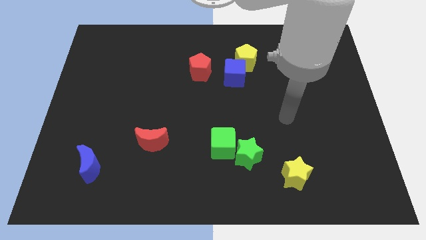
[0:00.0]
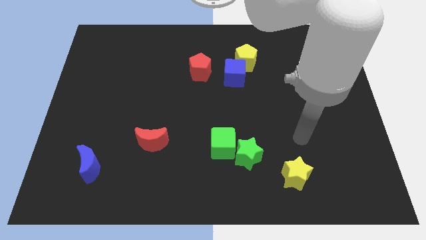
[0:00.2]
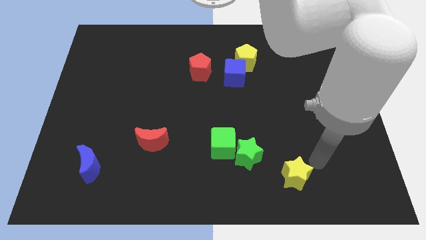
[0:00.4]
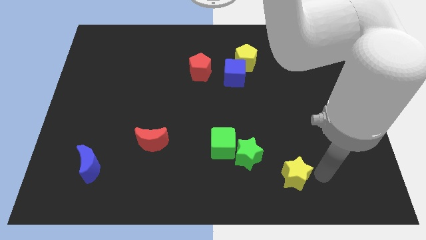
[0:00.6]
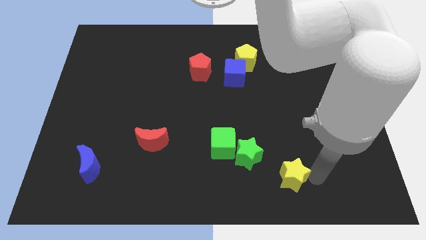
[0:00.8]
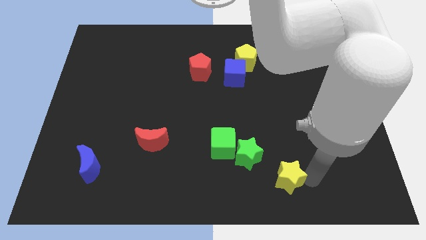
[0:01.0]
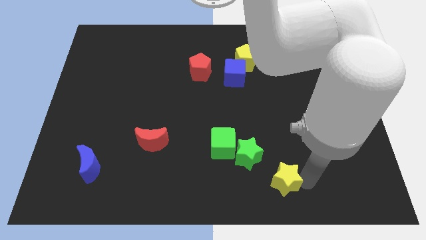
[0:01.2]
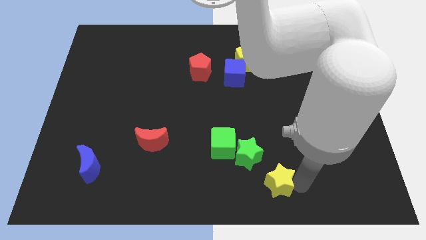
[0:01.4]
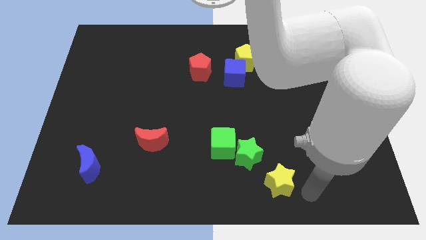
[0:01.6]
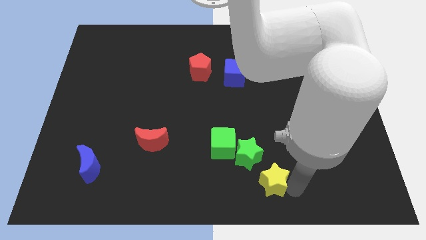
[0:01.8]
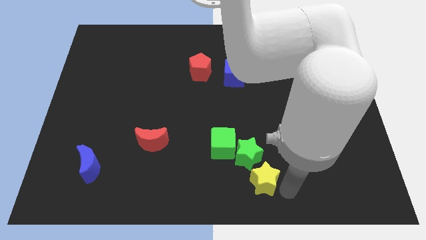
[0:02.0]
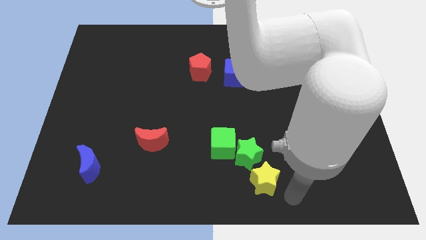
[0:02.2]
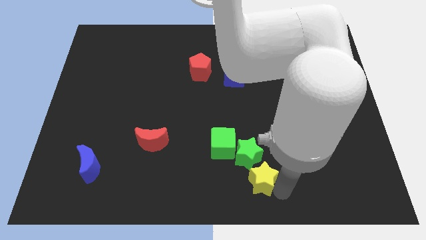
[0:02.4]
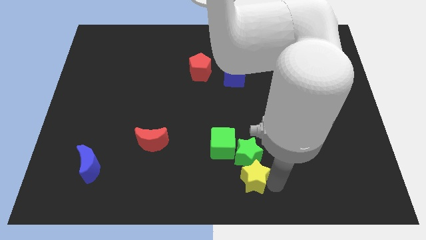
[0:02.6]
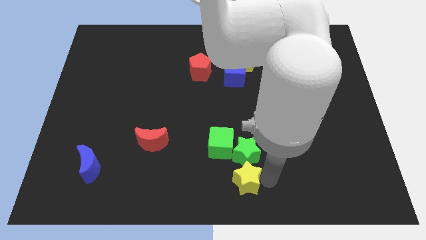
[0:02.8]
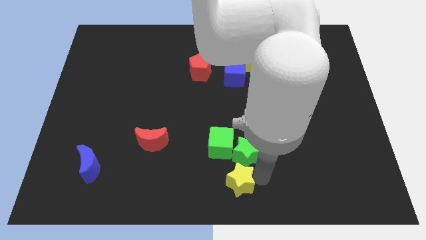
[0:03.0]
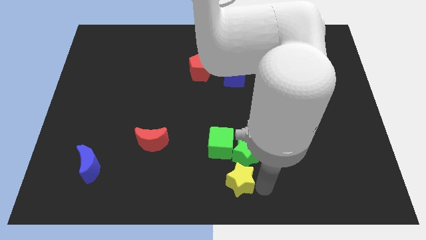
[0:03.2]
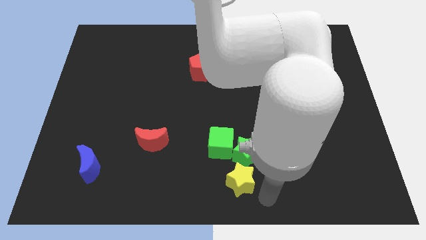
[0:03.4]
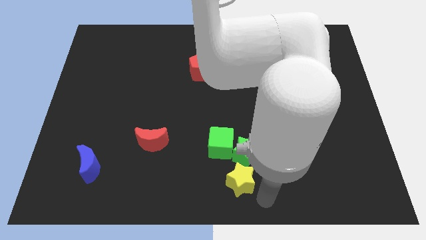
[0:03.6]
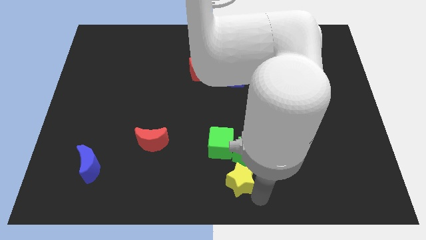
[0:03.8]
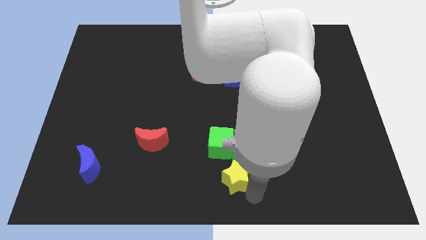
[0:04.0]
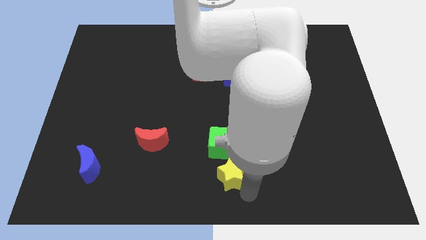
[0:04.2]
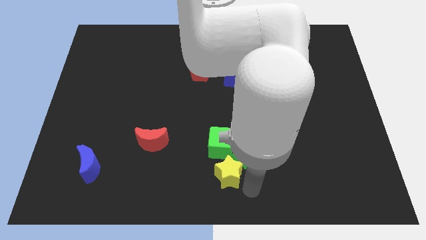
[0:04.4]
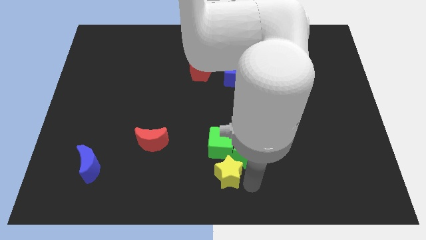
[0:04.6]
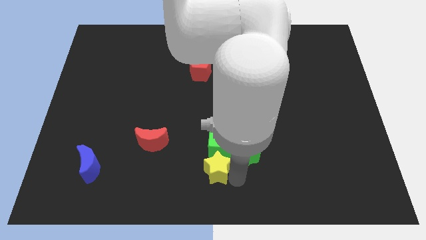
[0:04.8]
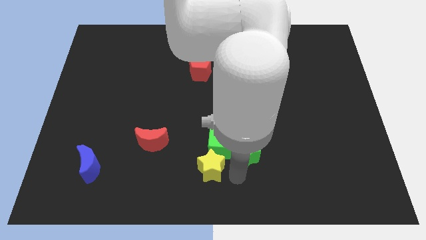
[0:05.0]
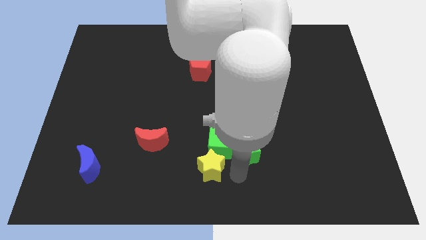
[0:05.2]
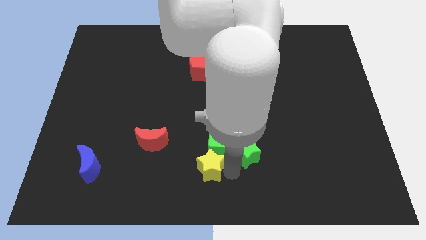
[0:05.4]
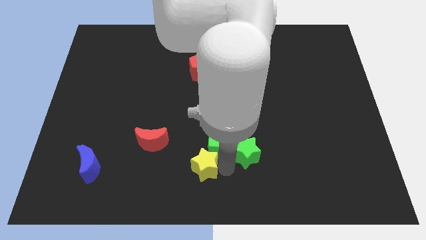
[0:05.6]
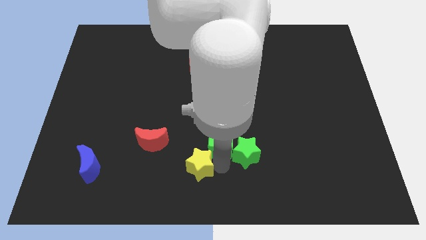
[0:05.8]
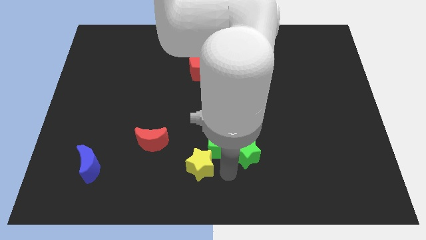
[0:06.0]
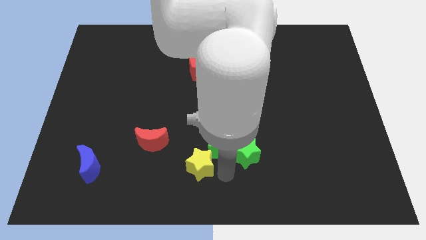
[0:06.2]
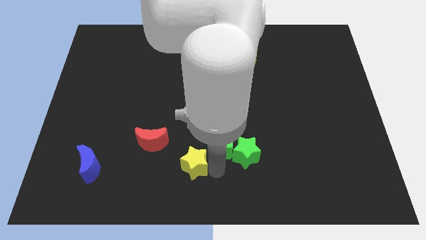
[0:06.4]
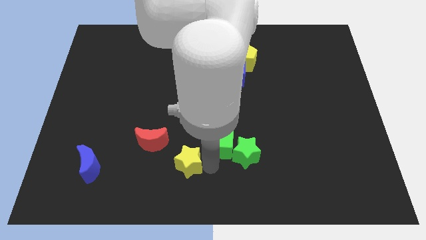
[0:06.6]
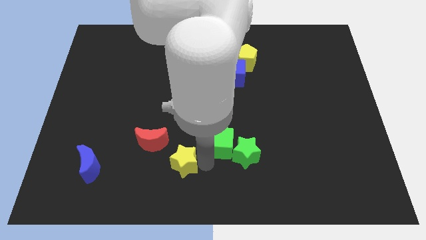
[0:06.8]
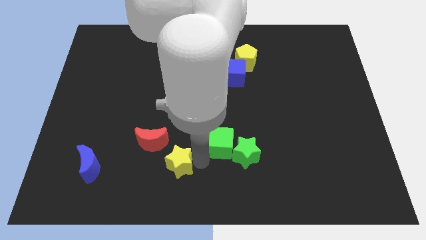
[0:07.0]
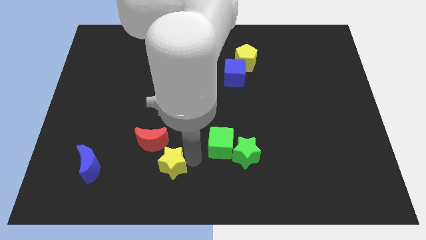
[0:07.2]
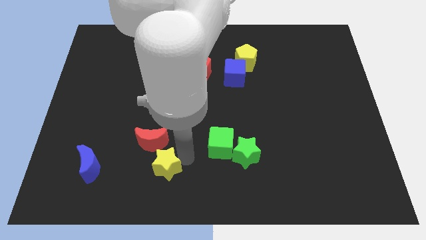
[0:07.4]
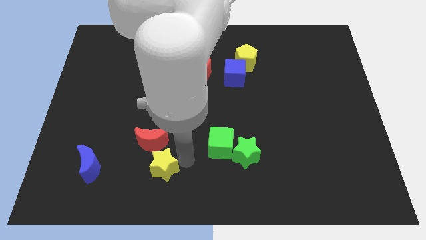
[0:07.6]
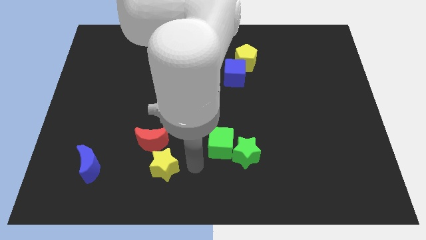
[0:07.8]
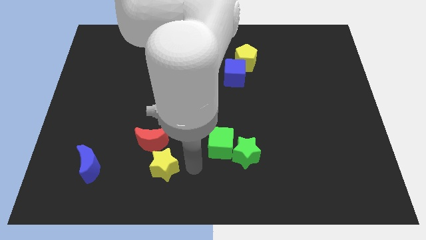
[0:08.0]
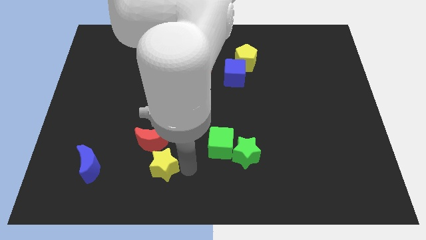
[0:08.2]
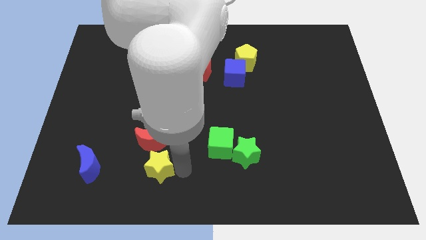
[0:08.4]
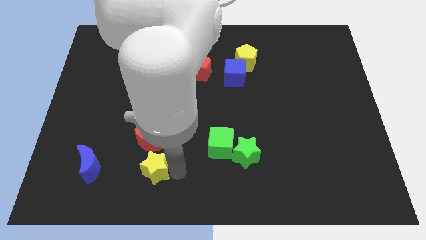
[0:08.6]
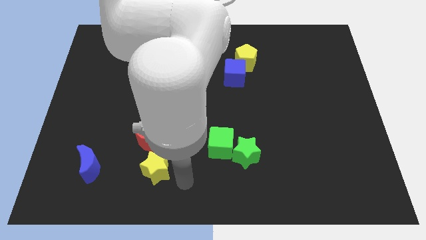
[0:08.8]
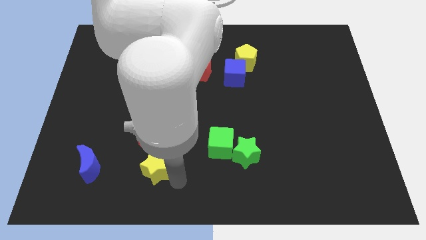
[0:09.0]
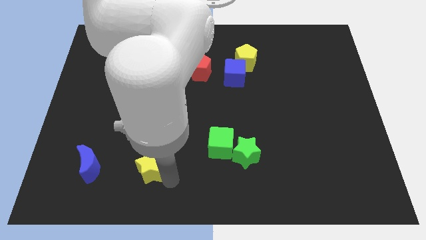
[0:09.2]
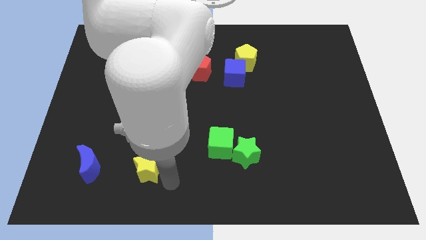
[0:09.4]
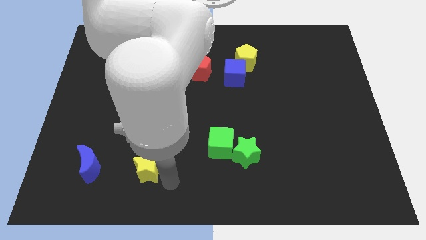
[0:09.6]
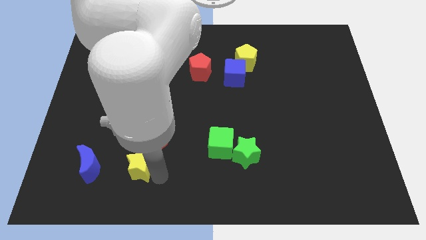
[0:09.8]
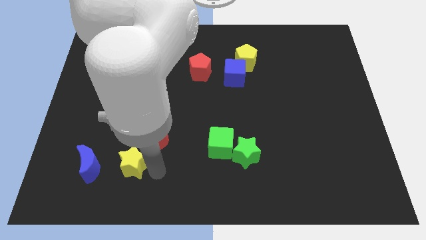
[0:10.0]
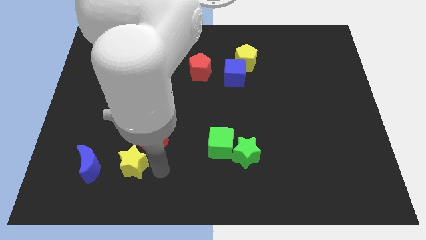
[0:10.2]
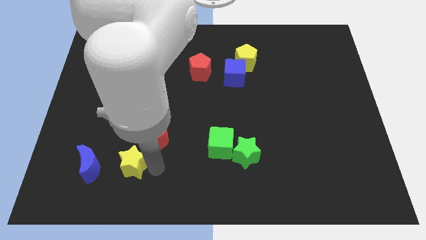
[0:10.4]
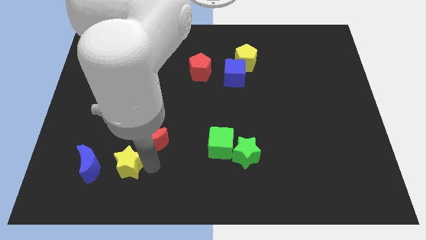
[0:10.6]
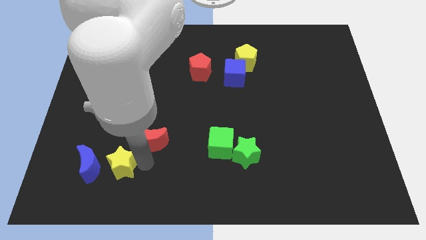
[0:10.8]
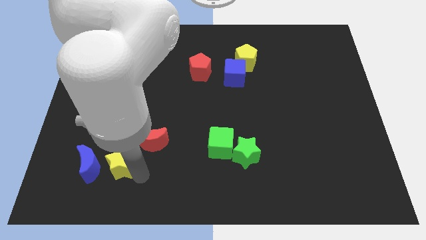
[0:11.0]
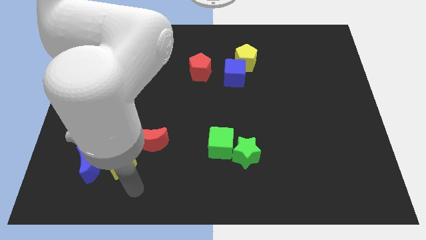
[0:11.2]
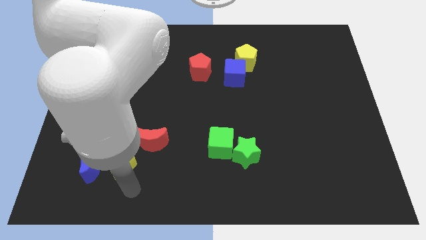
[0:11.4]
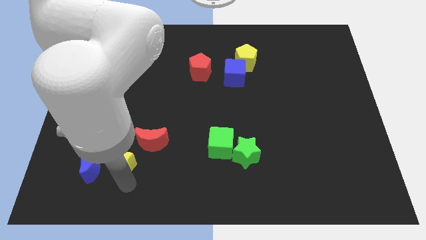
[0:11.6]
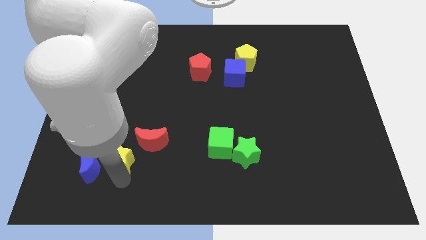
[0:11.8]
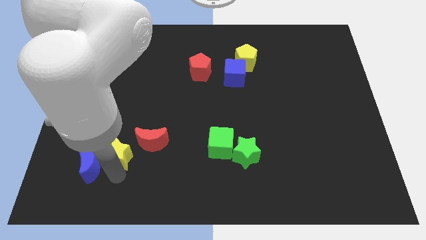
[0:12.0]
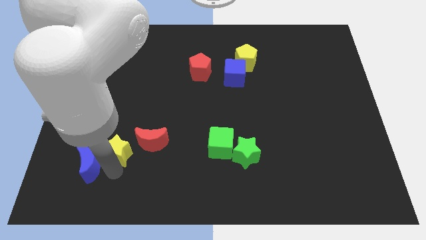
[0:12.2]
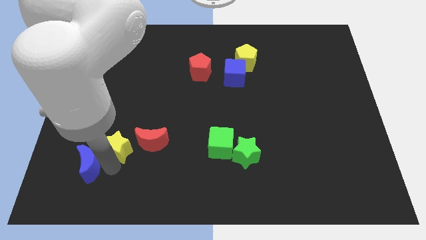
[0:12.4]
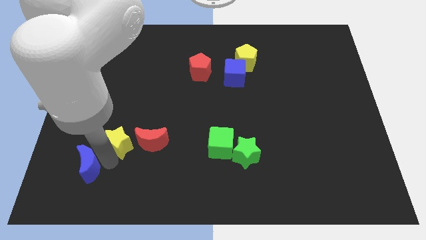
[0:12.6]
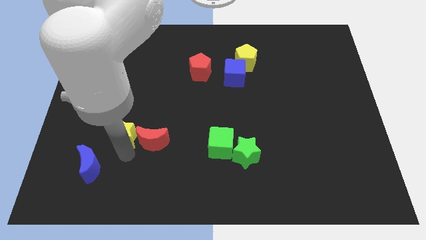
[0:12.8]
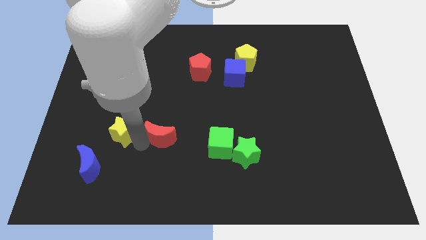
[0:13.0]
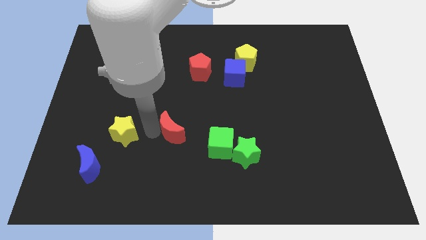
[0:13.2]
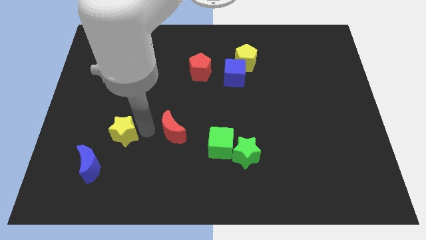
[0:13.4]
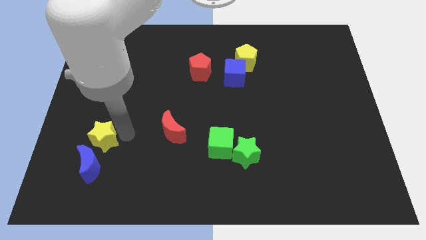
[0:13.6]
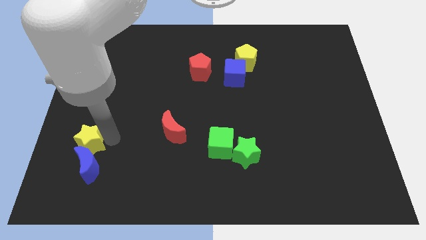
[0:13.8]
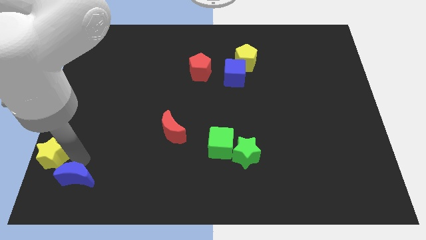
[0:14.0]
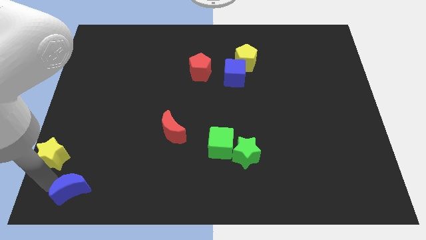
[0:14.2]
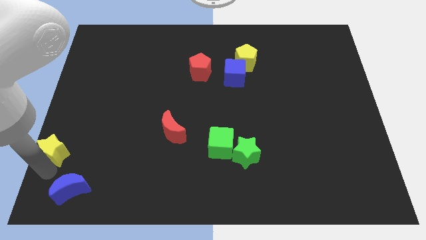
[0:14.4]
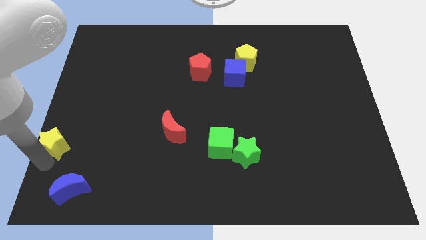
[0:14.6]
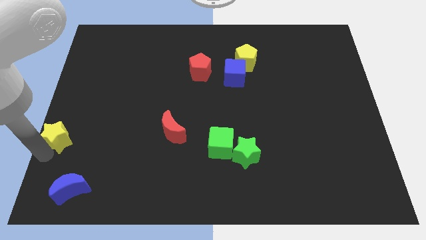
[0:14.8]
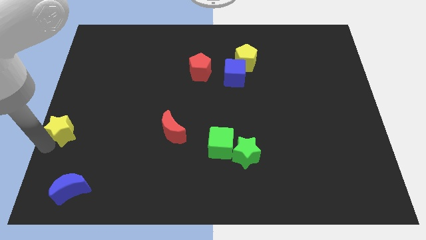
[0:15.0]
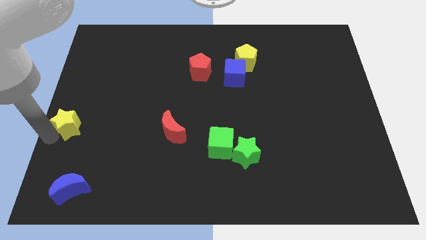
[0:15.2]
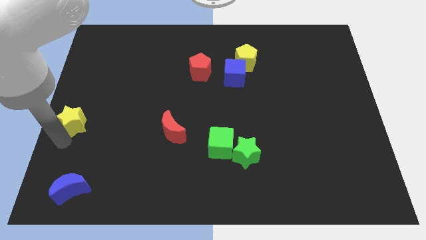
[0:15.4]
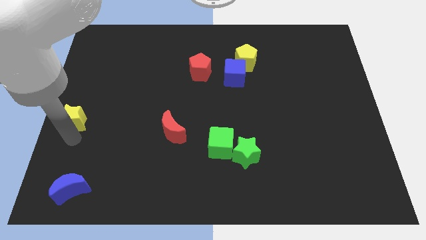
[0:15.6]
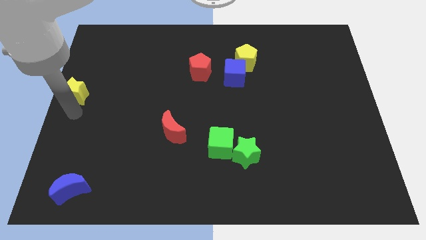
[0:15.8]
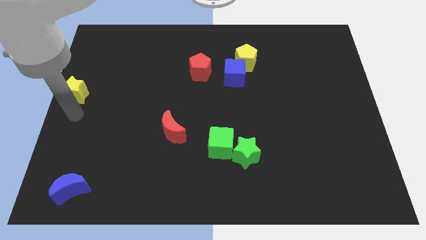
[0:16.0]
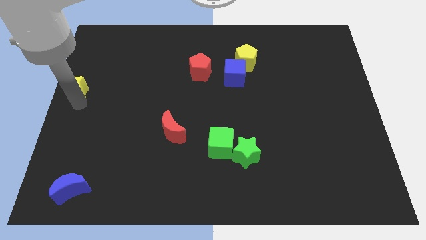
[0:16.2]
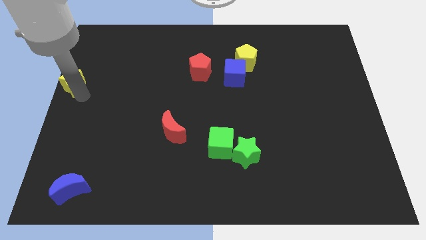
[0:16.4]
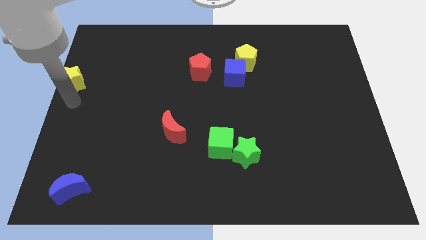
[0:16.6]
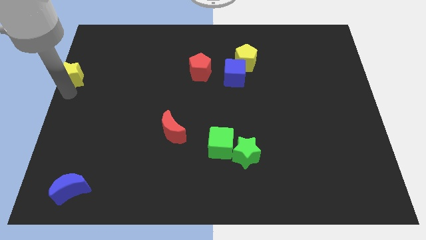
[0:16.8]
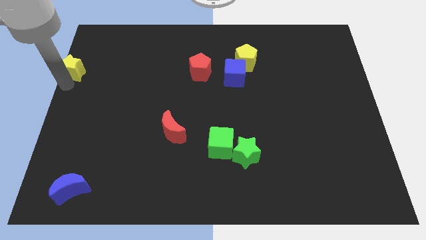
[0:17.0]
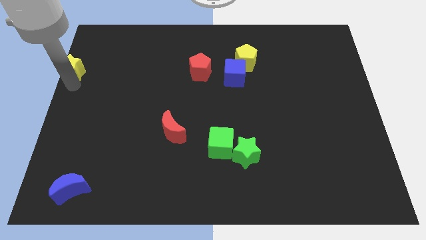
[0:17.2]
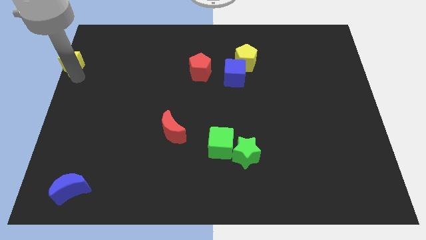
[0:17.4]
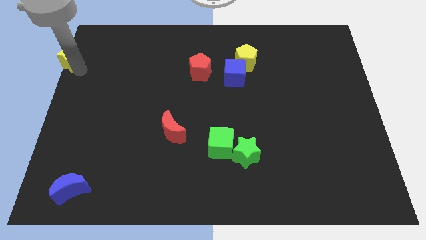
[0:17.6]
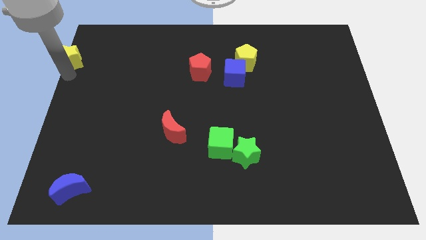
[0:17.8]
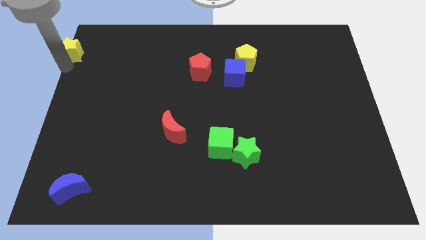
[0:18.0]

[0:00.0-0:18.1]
move the yellow star to the top left
